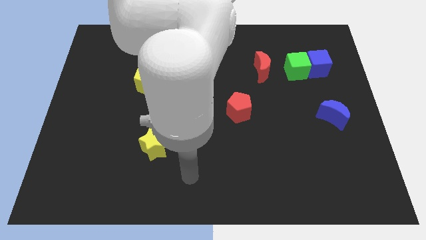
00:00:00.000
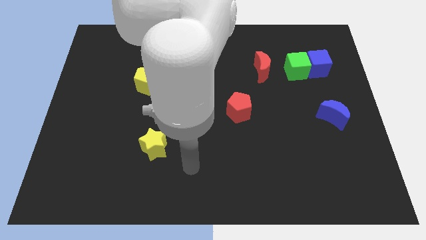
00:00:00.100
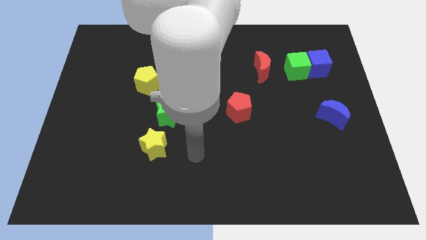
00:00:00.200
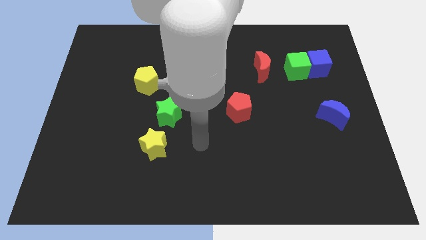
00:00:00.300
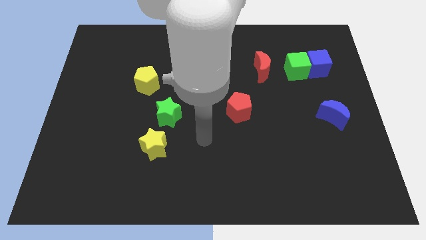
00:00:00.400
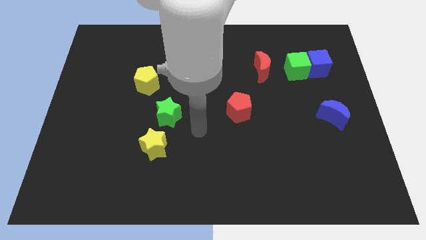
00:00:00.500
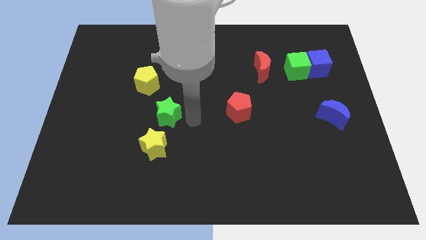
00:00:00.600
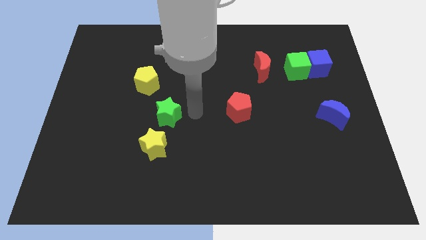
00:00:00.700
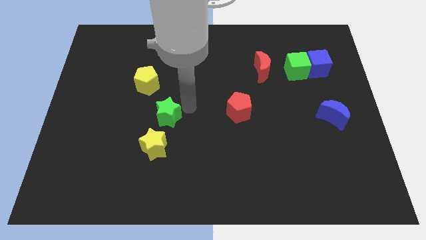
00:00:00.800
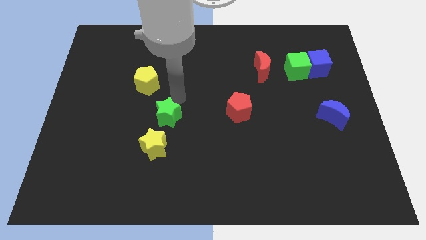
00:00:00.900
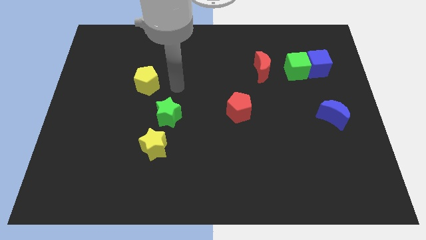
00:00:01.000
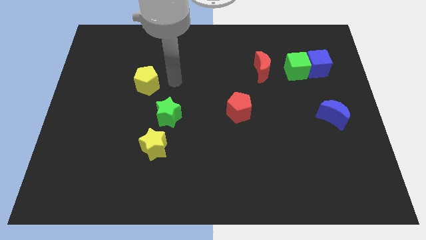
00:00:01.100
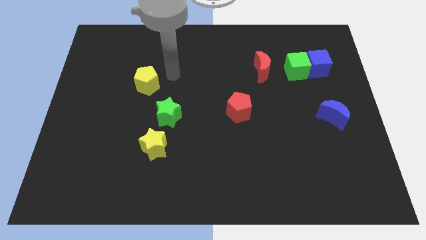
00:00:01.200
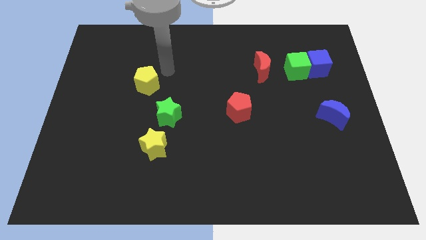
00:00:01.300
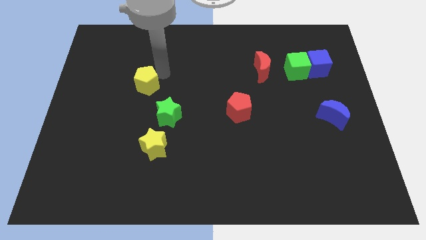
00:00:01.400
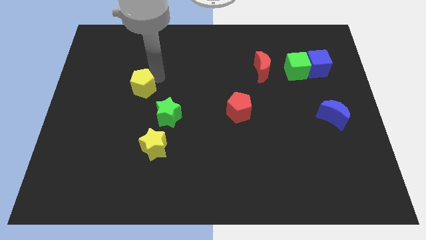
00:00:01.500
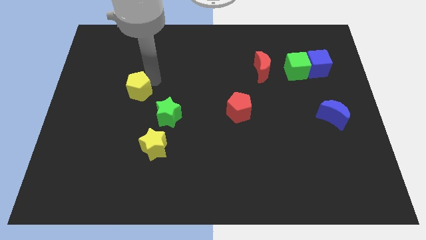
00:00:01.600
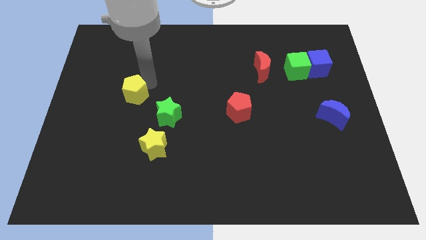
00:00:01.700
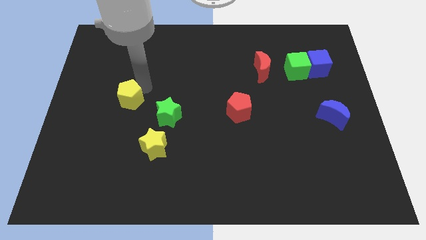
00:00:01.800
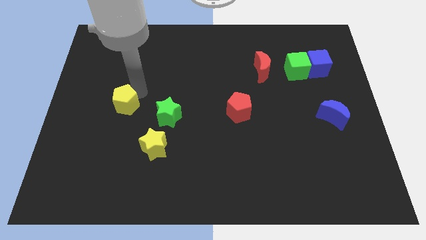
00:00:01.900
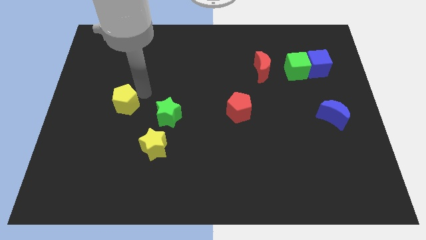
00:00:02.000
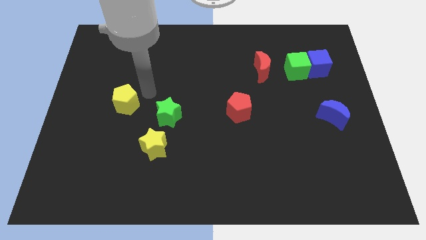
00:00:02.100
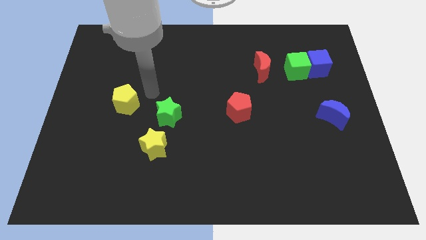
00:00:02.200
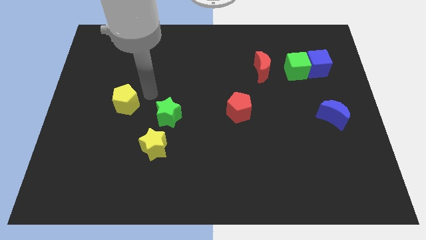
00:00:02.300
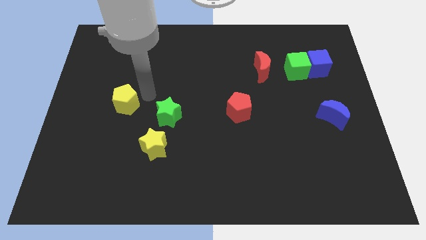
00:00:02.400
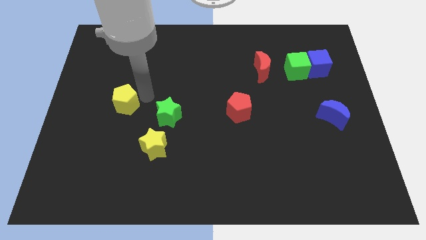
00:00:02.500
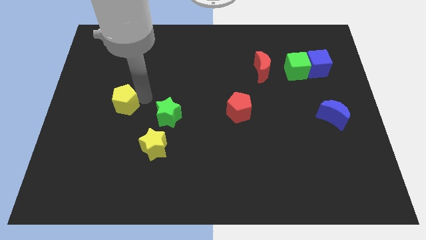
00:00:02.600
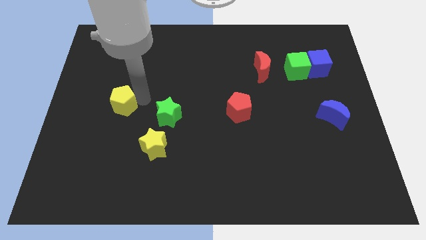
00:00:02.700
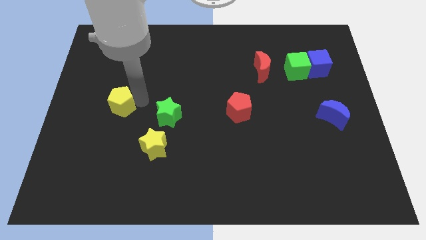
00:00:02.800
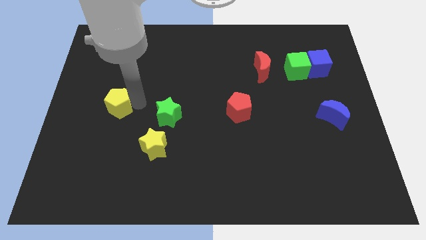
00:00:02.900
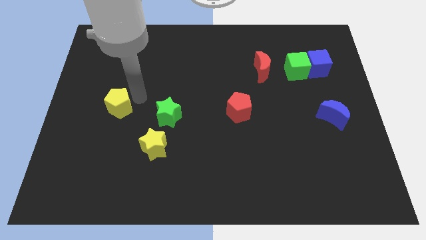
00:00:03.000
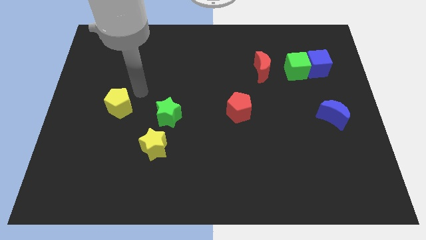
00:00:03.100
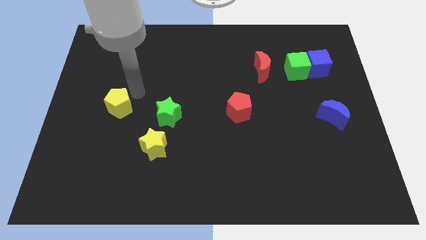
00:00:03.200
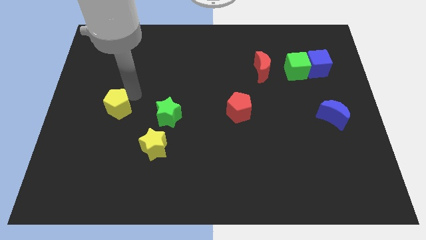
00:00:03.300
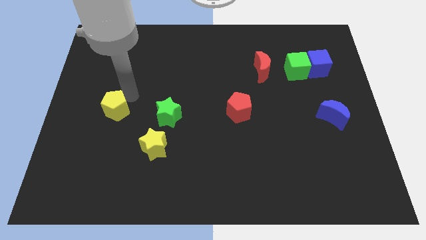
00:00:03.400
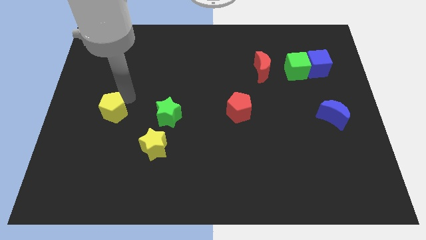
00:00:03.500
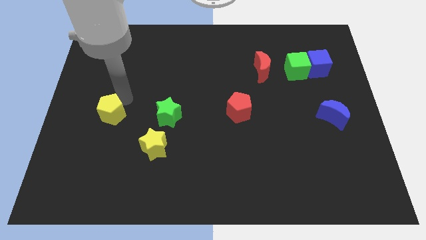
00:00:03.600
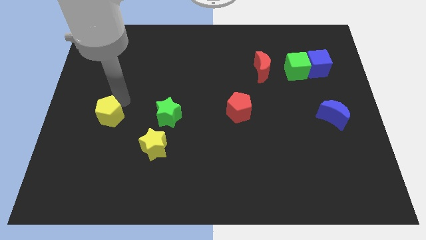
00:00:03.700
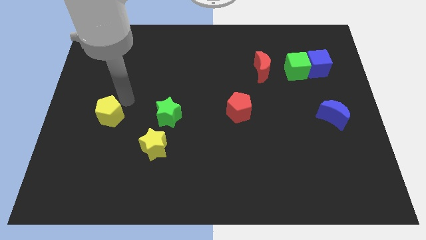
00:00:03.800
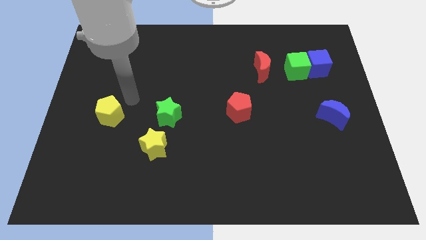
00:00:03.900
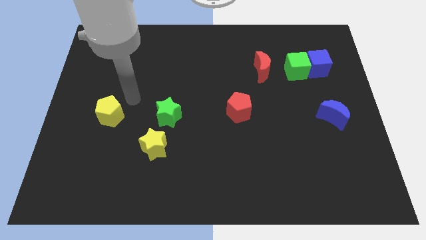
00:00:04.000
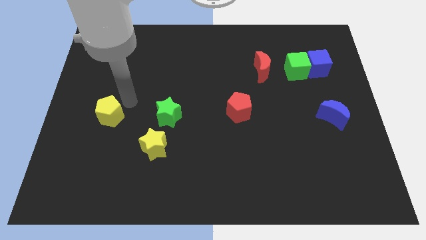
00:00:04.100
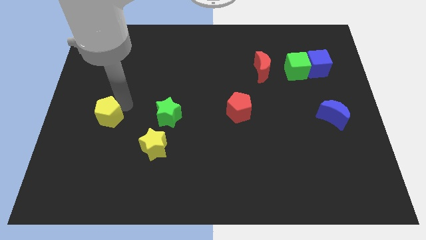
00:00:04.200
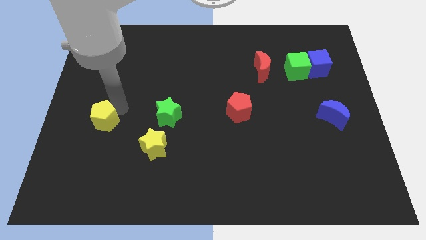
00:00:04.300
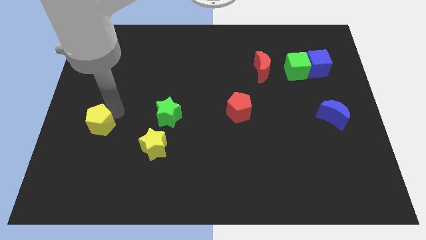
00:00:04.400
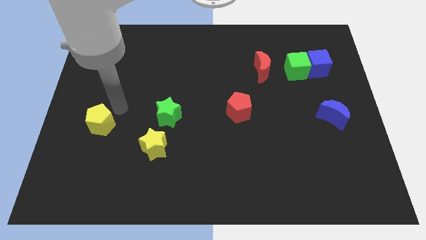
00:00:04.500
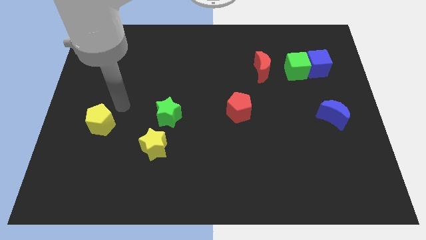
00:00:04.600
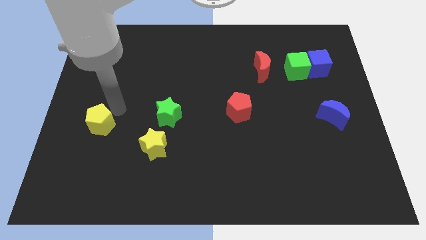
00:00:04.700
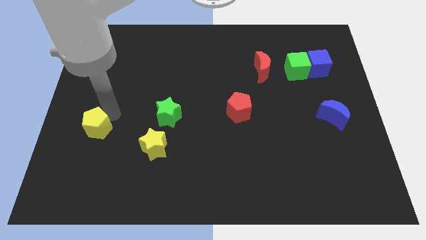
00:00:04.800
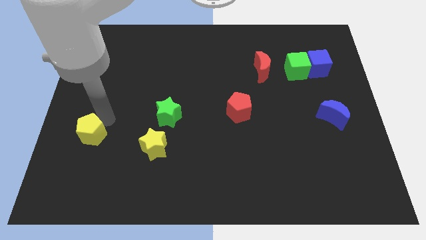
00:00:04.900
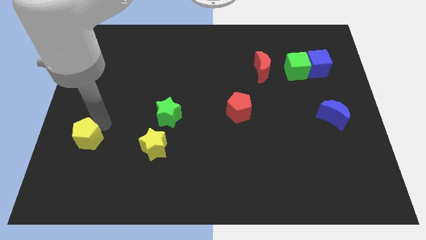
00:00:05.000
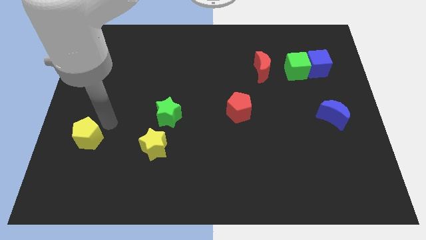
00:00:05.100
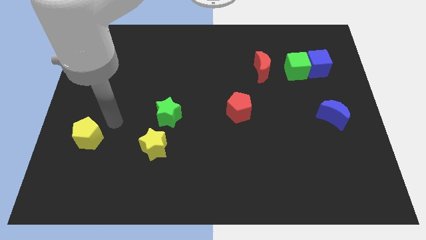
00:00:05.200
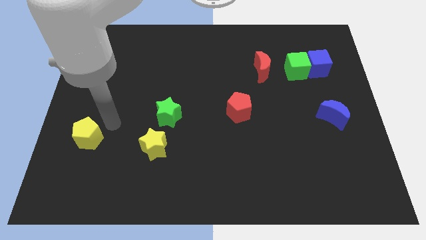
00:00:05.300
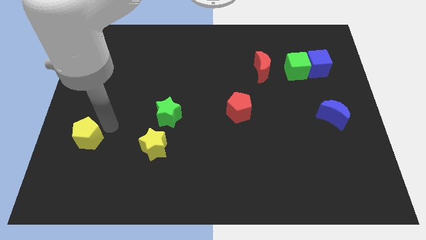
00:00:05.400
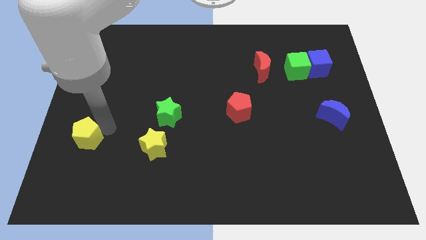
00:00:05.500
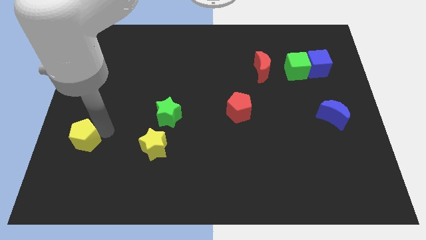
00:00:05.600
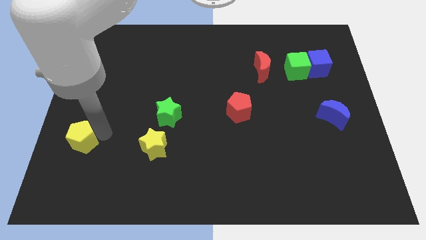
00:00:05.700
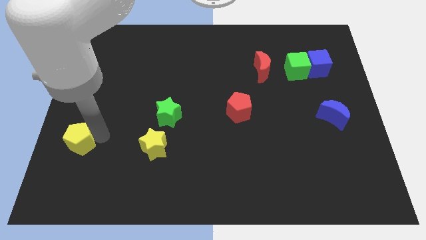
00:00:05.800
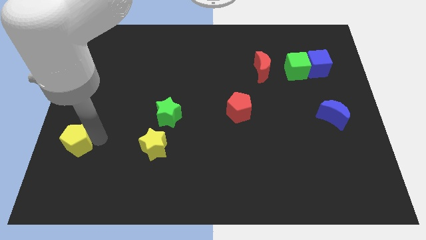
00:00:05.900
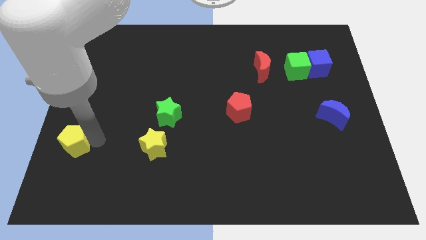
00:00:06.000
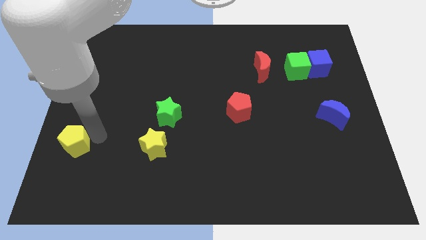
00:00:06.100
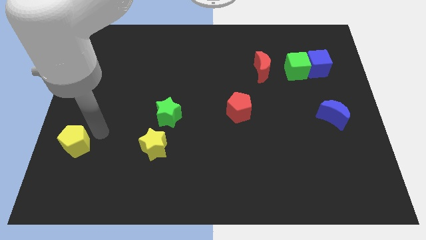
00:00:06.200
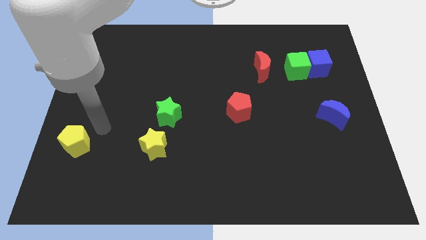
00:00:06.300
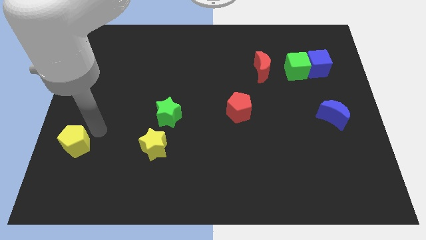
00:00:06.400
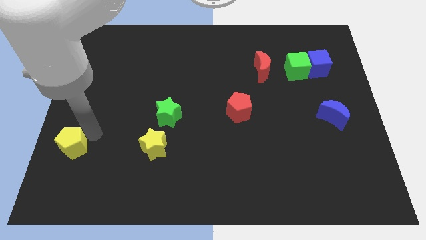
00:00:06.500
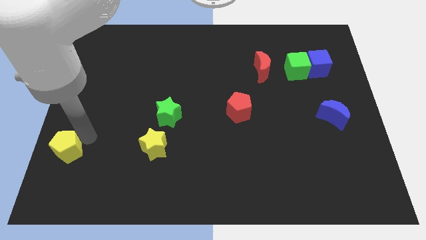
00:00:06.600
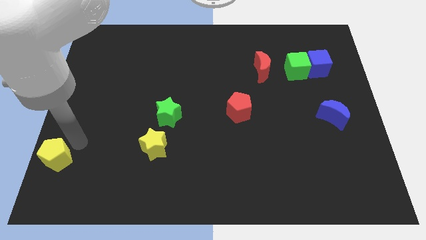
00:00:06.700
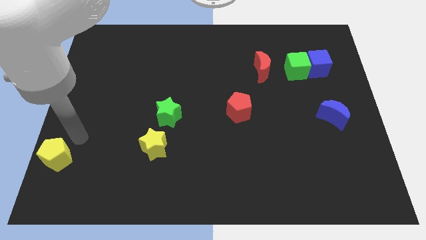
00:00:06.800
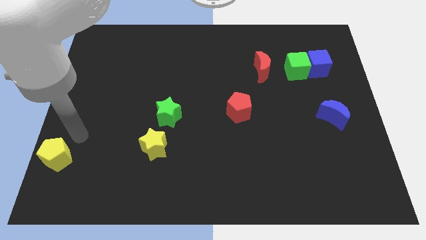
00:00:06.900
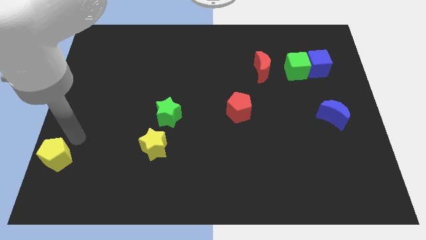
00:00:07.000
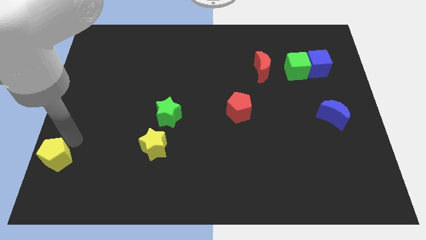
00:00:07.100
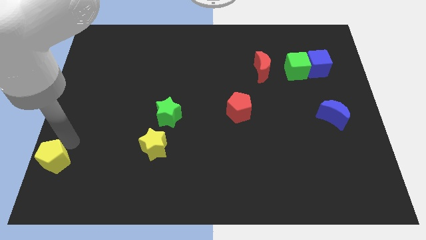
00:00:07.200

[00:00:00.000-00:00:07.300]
push the yellow pentagon to the bottom left of the board
